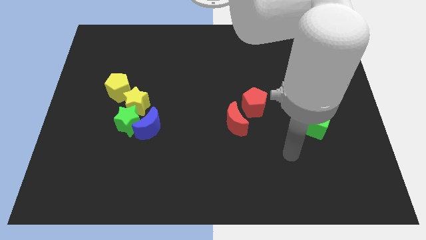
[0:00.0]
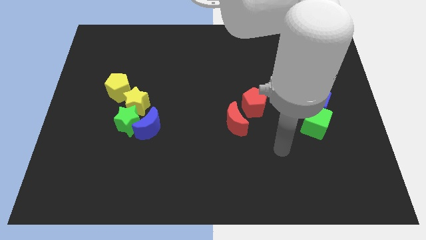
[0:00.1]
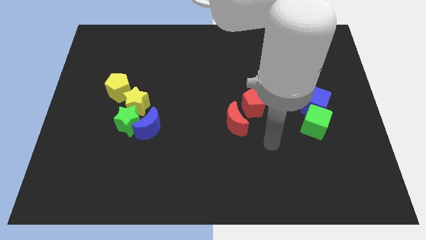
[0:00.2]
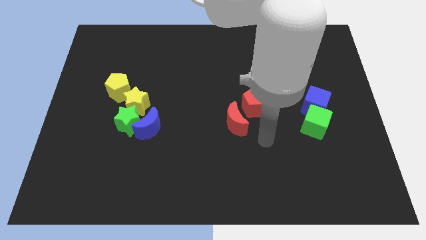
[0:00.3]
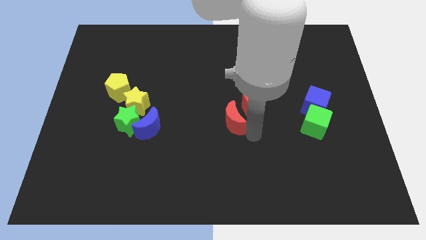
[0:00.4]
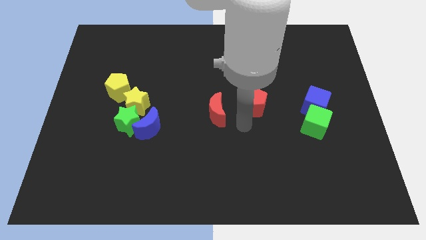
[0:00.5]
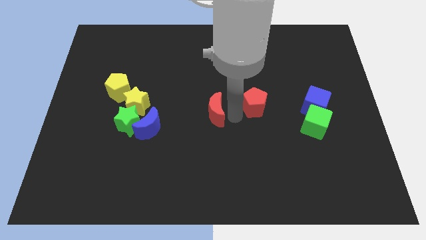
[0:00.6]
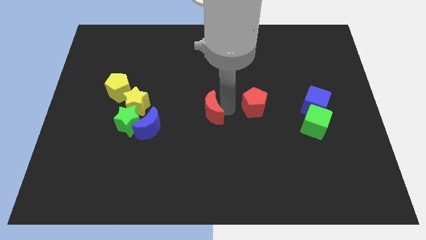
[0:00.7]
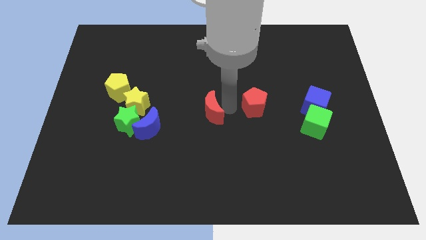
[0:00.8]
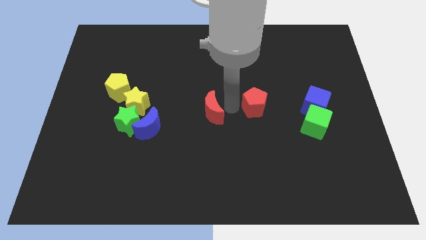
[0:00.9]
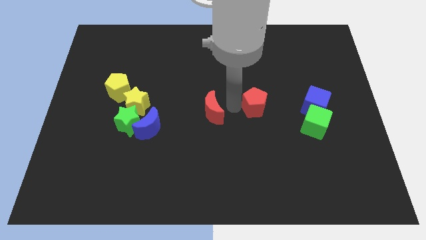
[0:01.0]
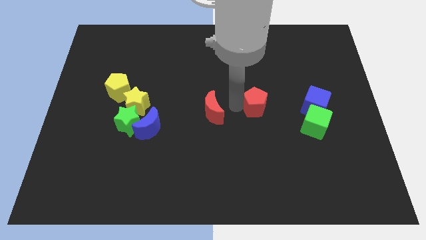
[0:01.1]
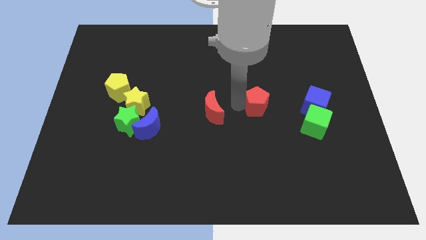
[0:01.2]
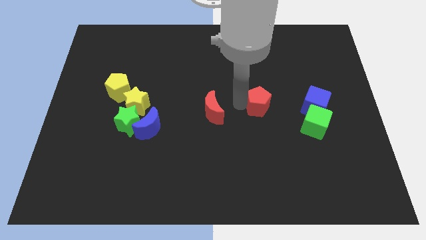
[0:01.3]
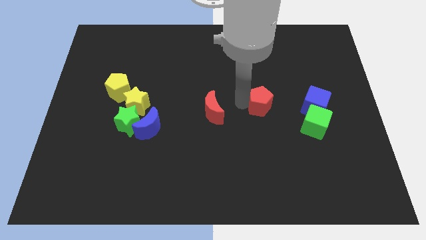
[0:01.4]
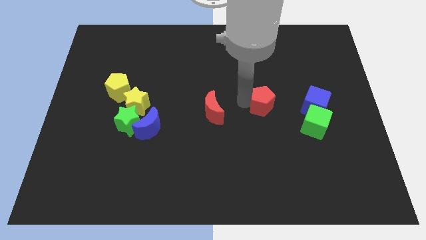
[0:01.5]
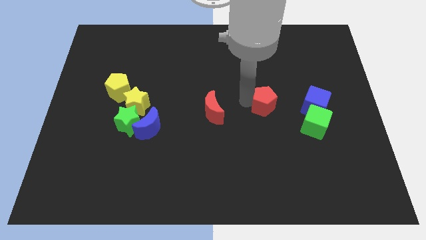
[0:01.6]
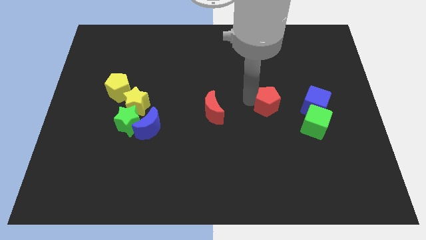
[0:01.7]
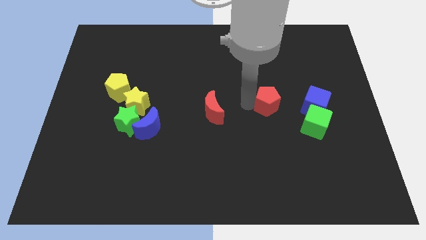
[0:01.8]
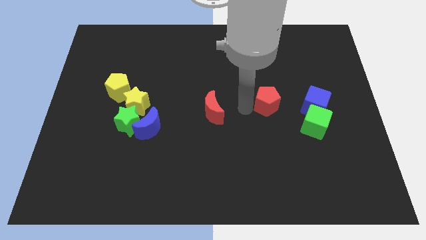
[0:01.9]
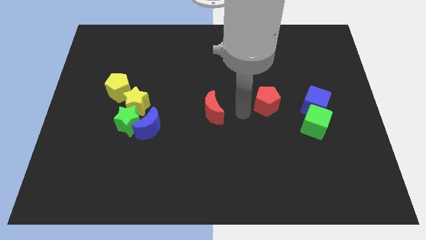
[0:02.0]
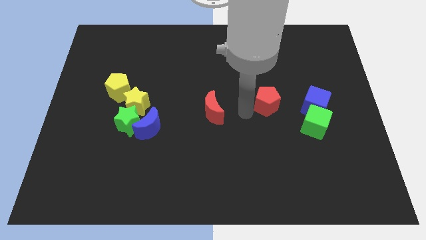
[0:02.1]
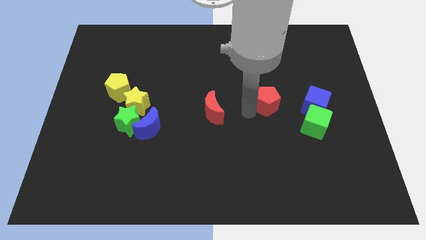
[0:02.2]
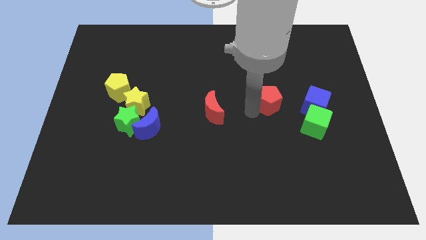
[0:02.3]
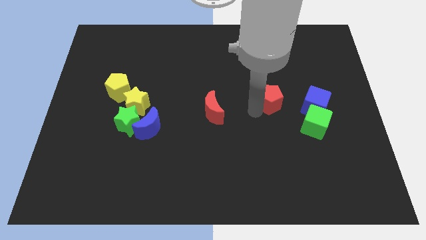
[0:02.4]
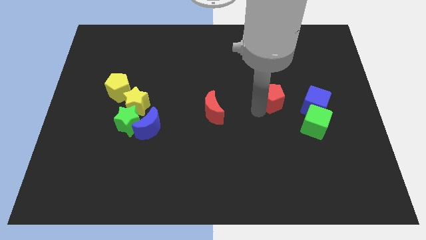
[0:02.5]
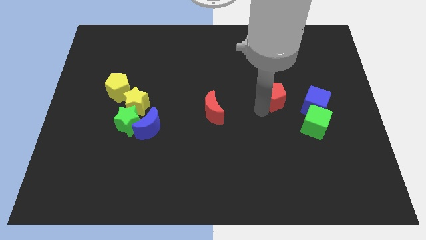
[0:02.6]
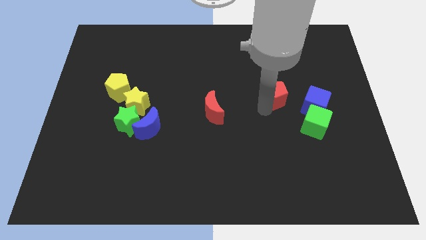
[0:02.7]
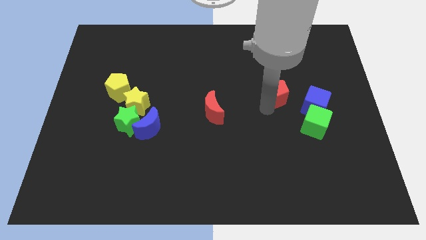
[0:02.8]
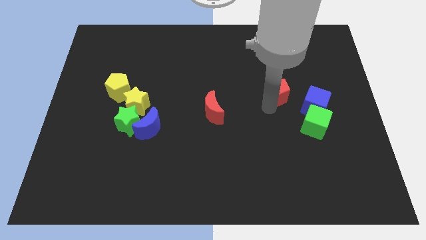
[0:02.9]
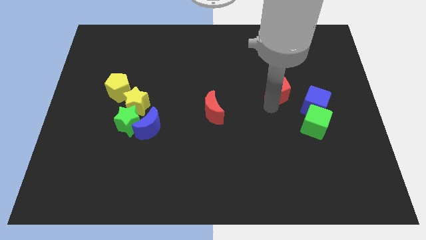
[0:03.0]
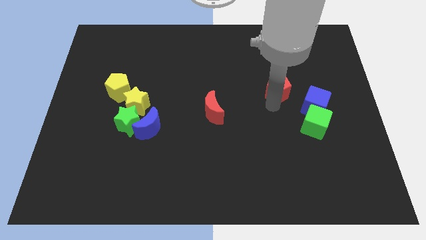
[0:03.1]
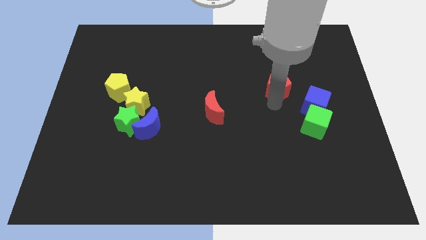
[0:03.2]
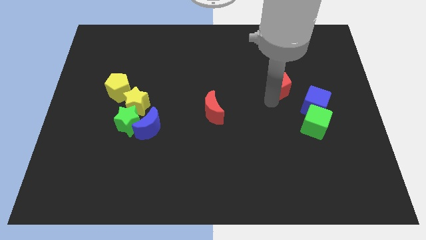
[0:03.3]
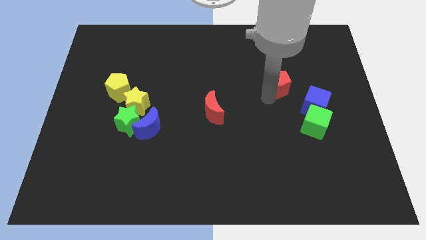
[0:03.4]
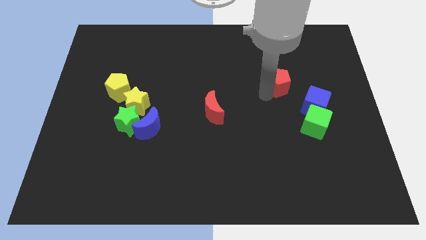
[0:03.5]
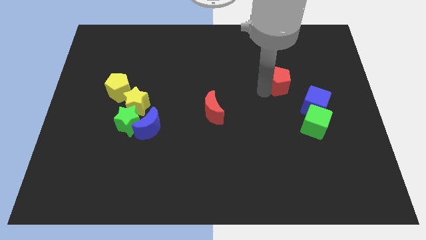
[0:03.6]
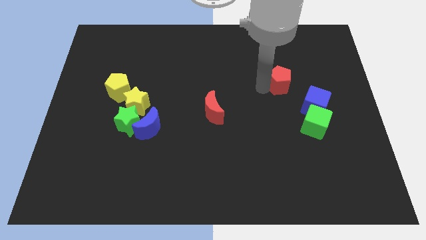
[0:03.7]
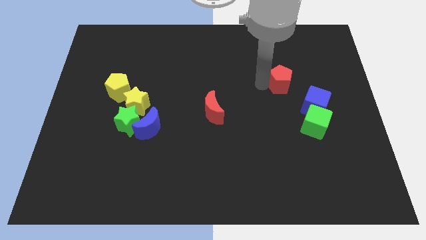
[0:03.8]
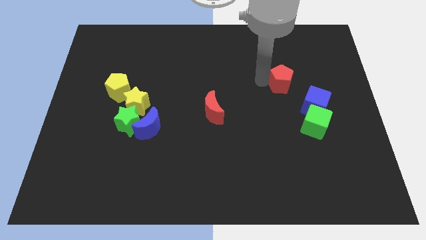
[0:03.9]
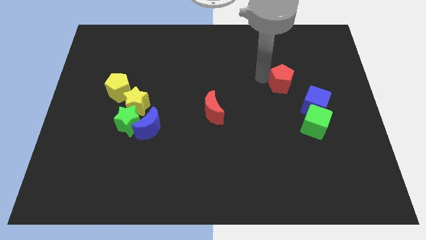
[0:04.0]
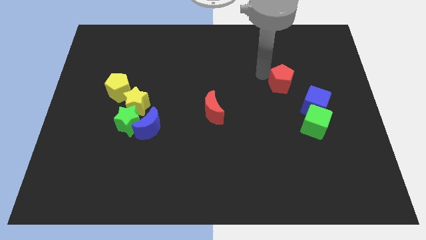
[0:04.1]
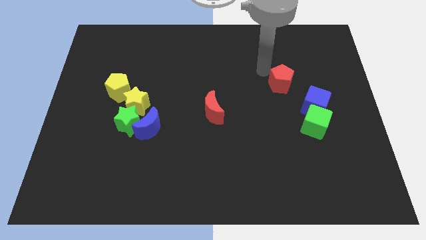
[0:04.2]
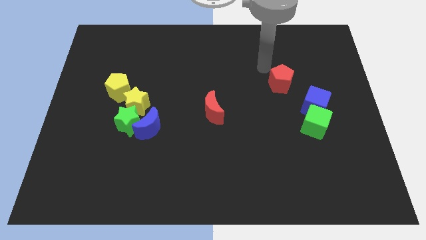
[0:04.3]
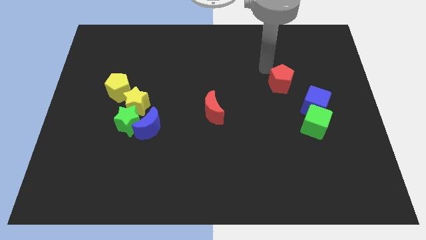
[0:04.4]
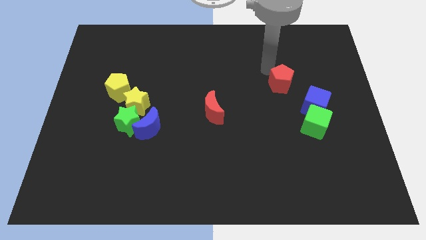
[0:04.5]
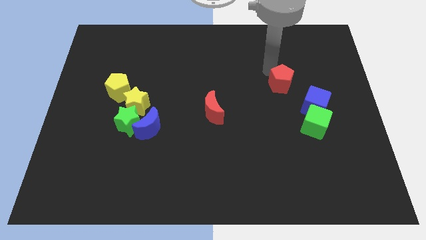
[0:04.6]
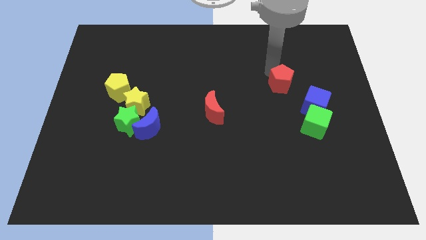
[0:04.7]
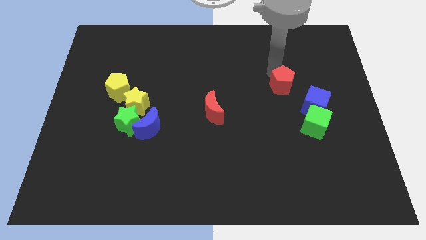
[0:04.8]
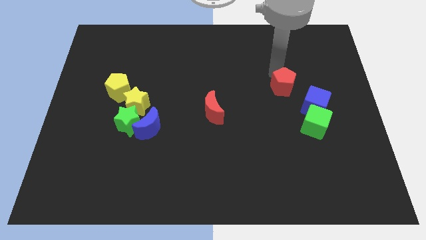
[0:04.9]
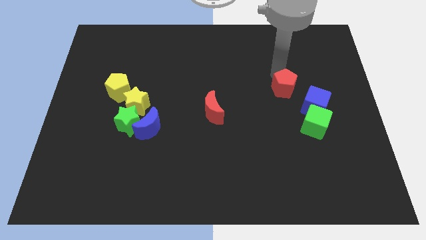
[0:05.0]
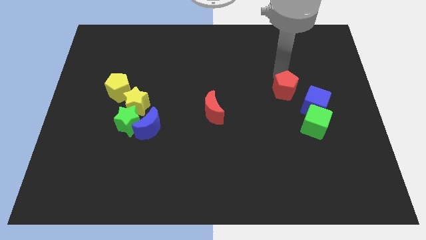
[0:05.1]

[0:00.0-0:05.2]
slightly move the red pentagon right

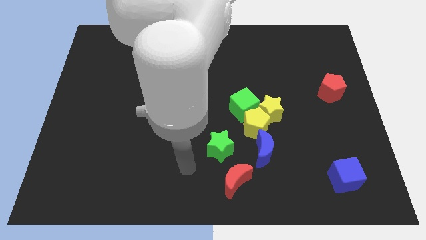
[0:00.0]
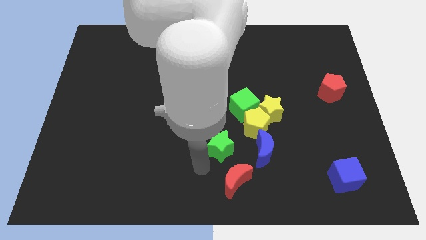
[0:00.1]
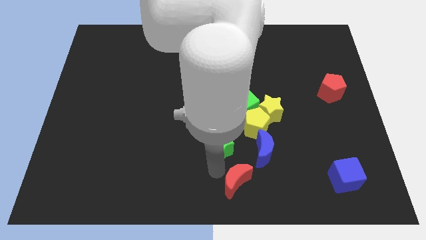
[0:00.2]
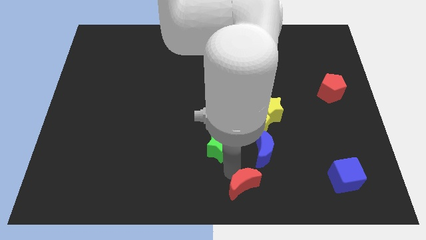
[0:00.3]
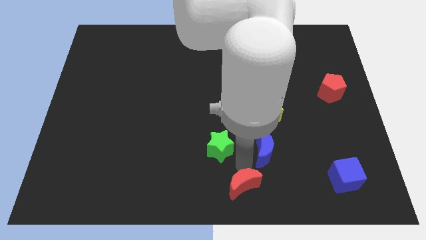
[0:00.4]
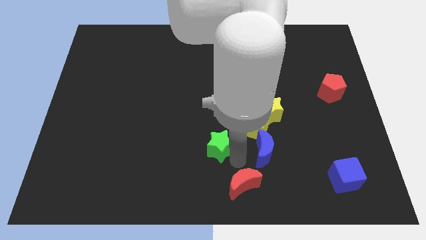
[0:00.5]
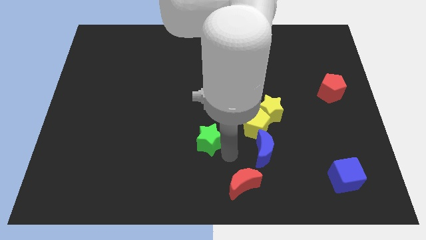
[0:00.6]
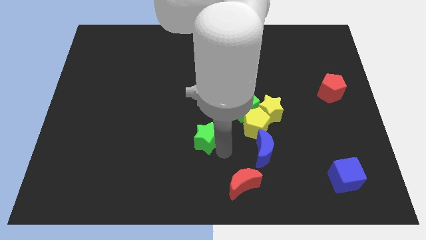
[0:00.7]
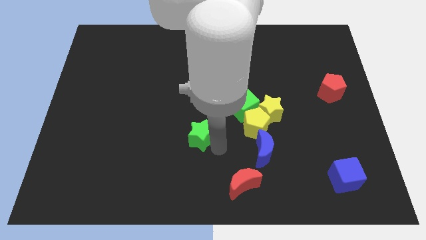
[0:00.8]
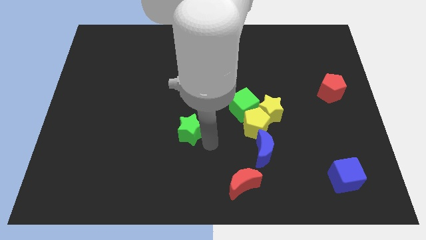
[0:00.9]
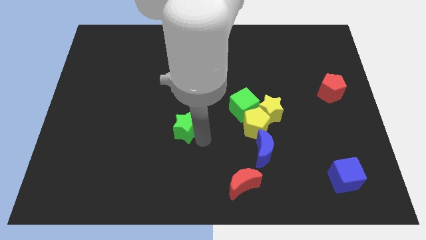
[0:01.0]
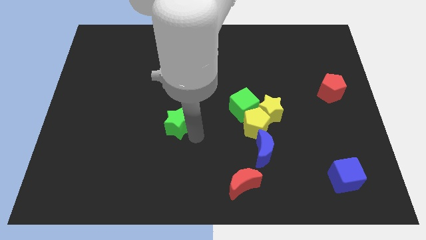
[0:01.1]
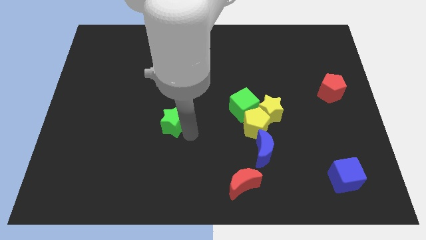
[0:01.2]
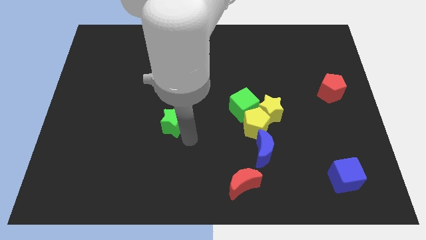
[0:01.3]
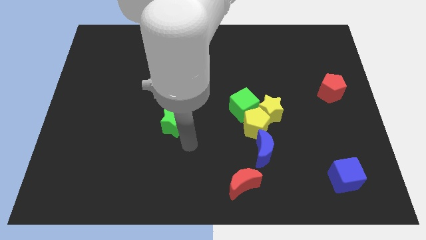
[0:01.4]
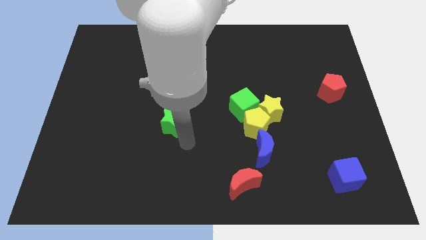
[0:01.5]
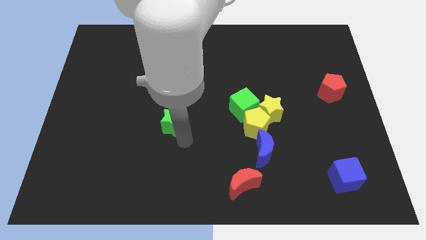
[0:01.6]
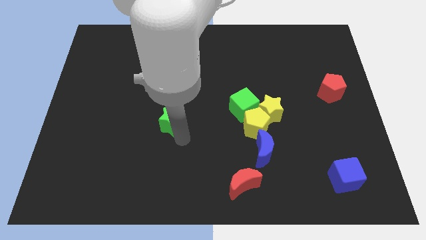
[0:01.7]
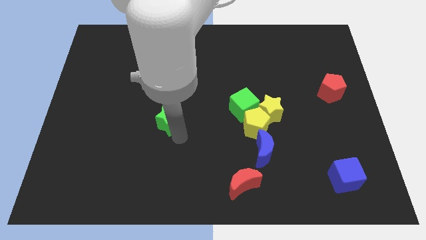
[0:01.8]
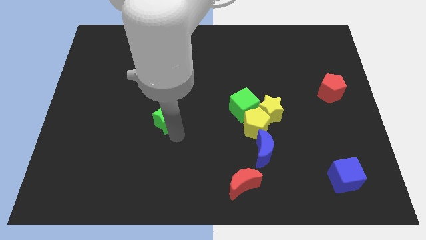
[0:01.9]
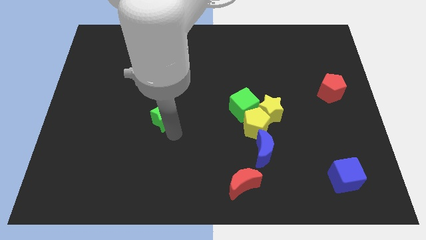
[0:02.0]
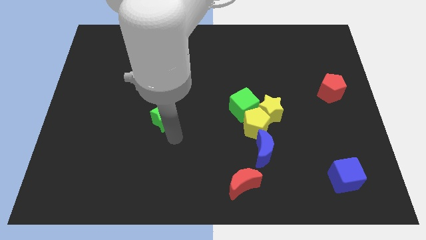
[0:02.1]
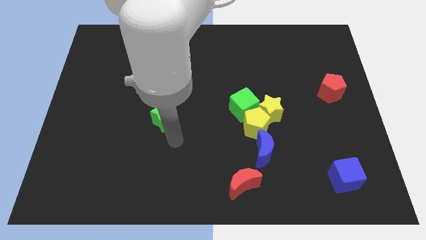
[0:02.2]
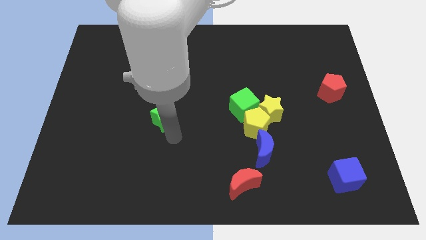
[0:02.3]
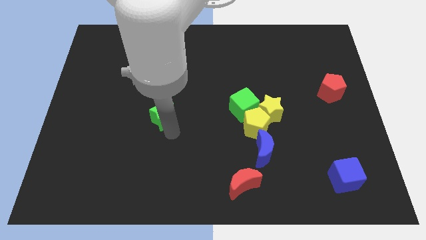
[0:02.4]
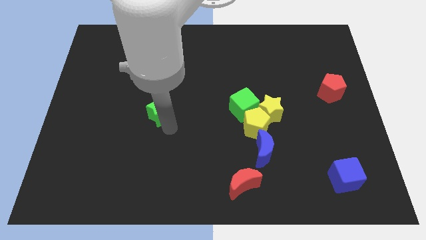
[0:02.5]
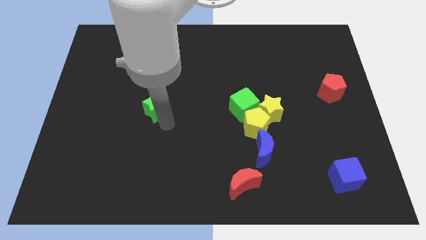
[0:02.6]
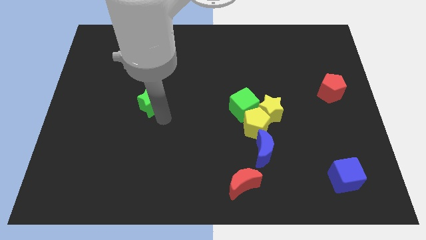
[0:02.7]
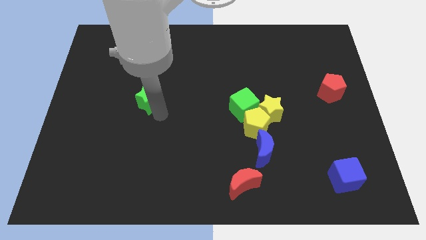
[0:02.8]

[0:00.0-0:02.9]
move the green star diagonally upwards and to the left
